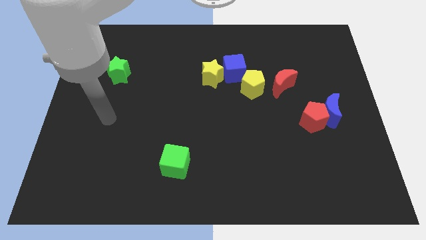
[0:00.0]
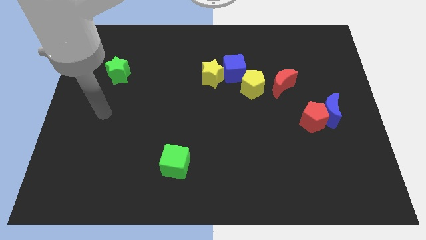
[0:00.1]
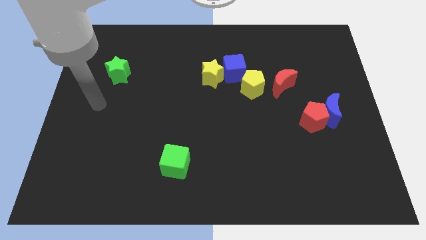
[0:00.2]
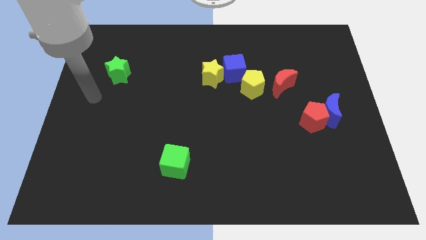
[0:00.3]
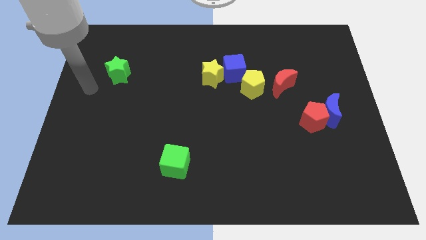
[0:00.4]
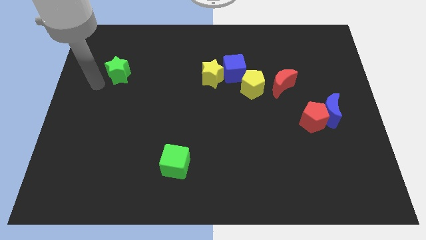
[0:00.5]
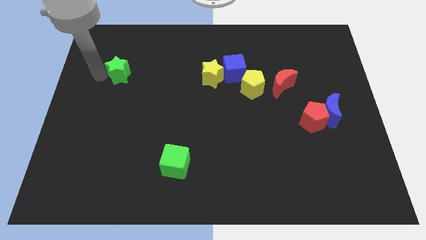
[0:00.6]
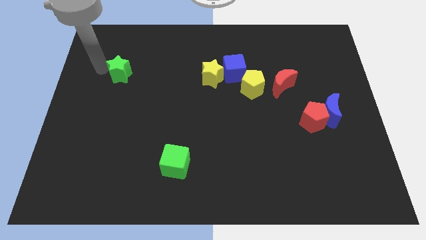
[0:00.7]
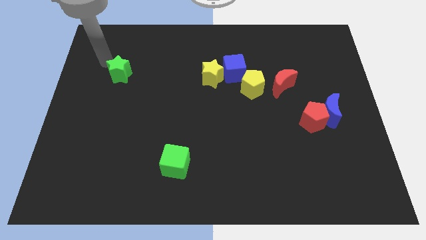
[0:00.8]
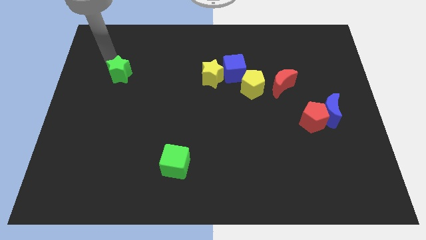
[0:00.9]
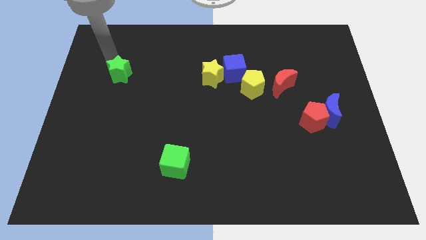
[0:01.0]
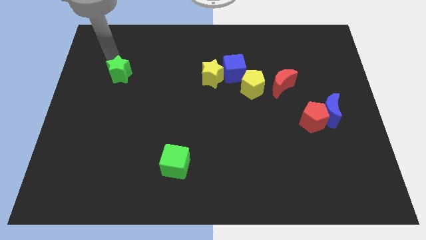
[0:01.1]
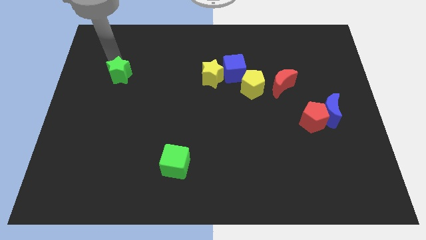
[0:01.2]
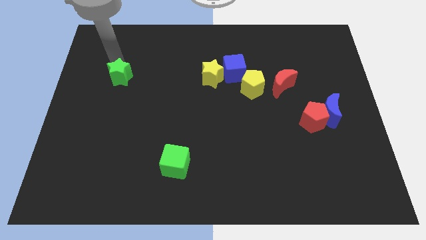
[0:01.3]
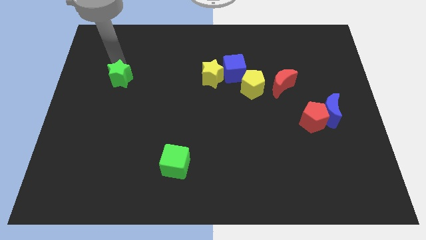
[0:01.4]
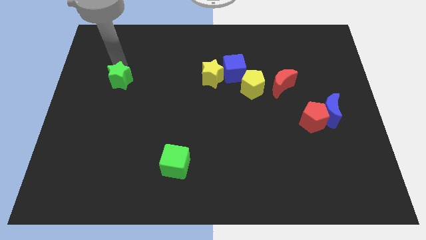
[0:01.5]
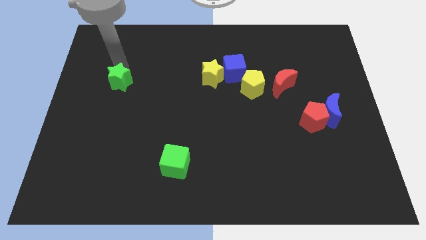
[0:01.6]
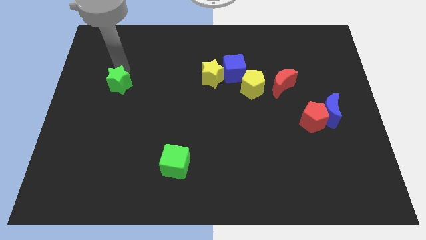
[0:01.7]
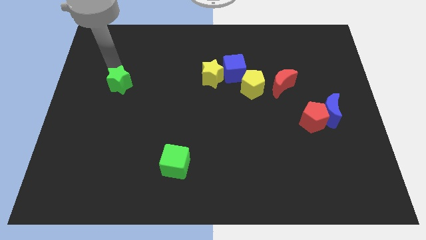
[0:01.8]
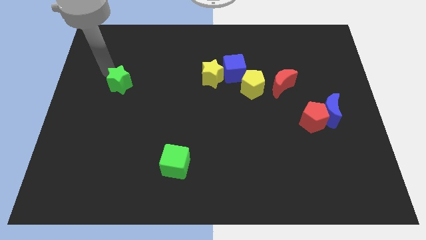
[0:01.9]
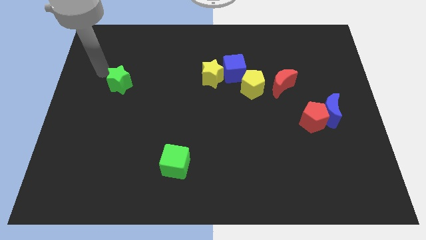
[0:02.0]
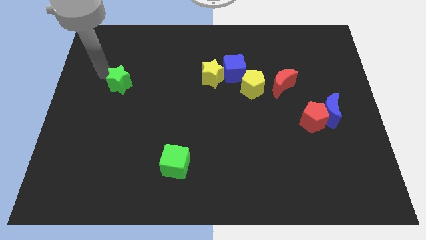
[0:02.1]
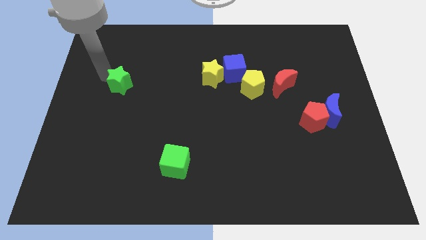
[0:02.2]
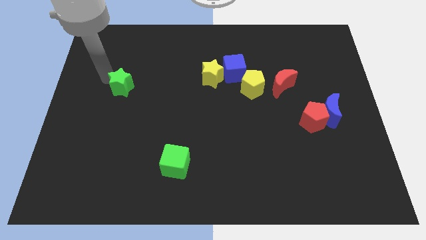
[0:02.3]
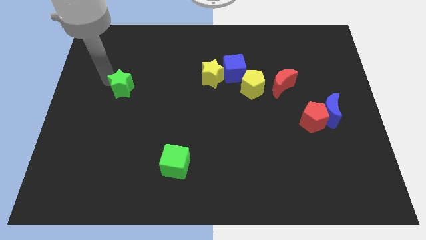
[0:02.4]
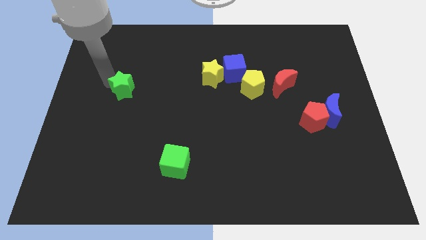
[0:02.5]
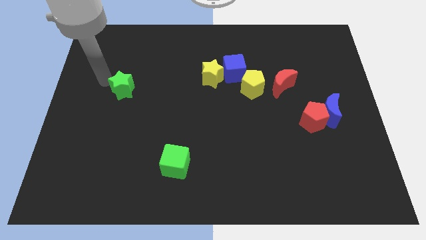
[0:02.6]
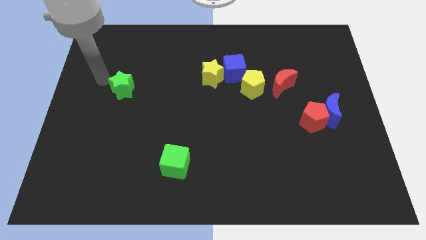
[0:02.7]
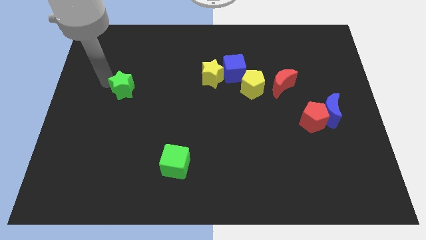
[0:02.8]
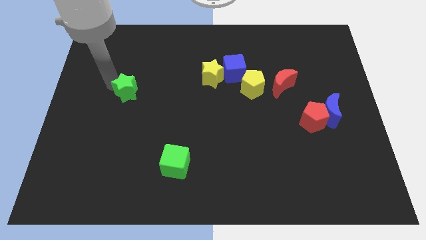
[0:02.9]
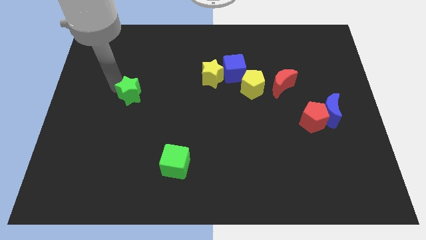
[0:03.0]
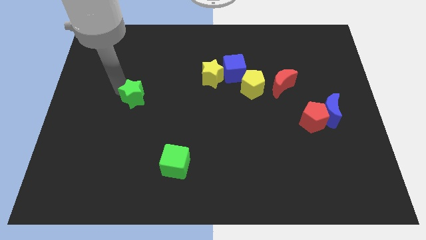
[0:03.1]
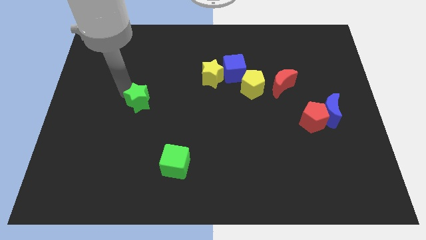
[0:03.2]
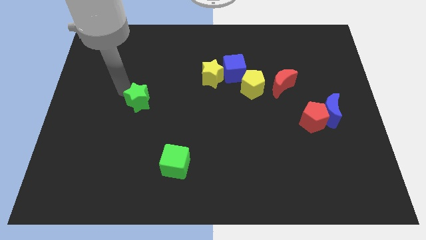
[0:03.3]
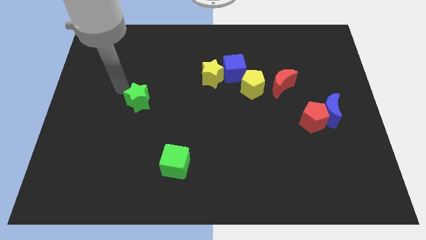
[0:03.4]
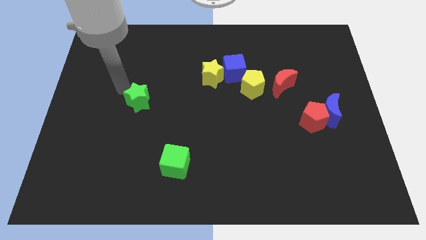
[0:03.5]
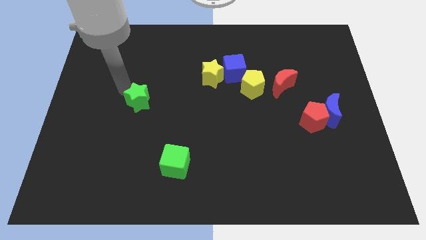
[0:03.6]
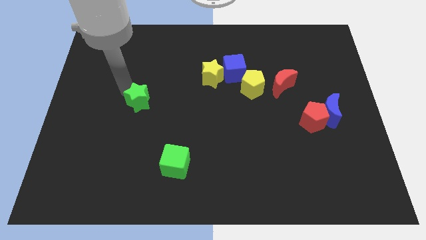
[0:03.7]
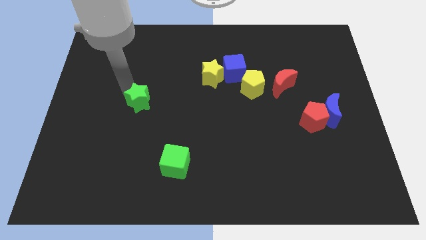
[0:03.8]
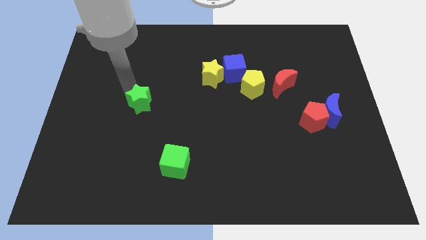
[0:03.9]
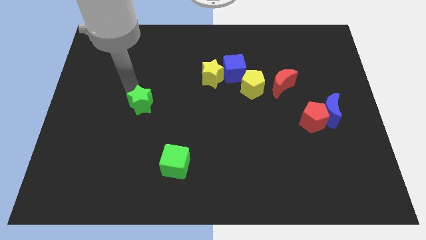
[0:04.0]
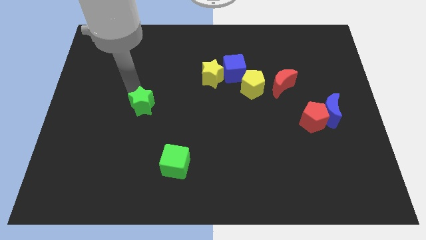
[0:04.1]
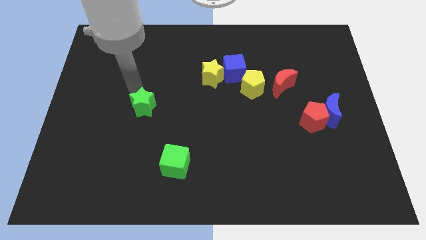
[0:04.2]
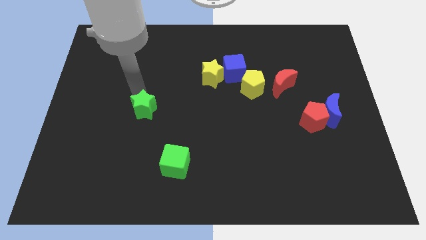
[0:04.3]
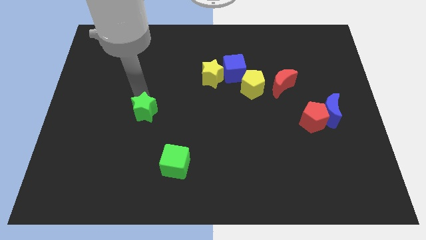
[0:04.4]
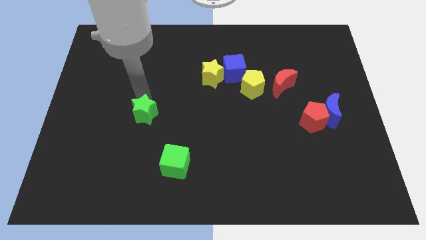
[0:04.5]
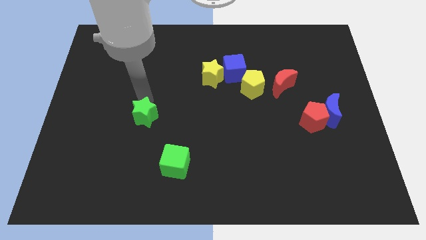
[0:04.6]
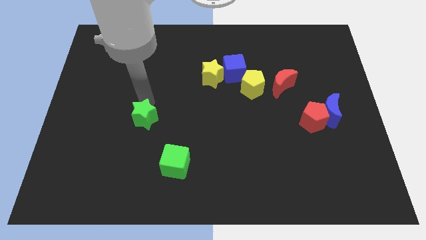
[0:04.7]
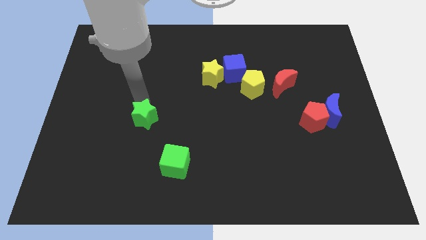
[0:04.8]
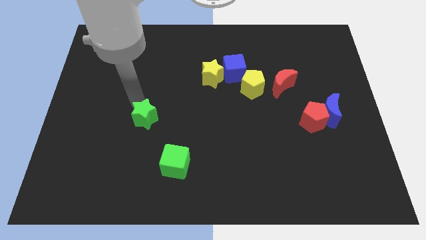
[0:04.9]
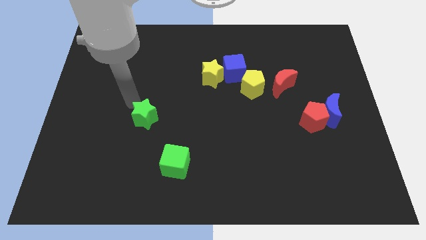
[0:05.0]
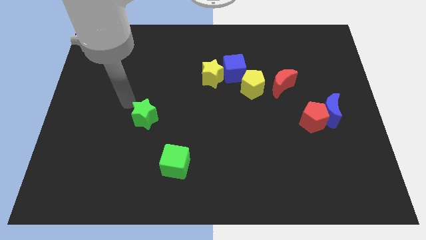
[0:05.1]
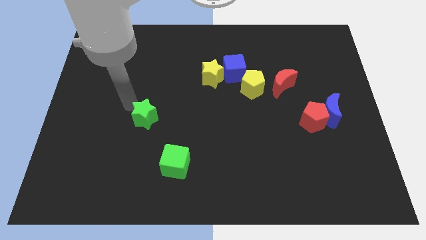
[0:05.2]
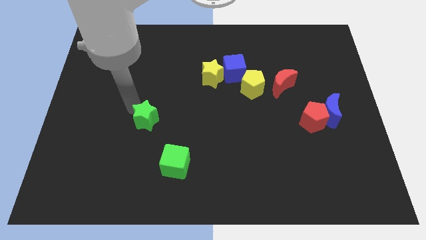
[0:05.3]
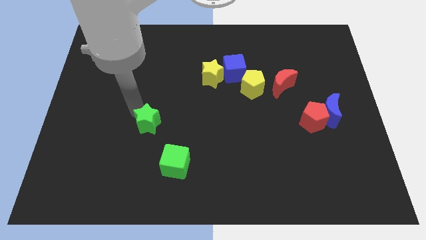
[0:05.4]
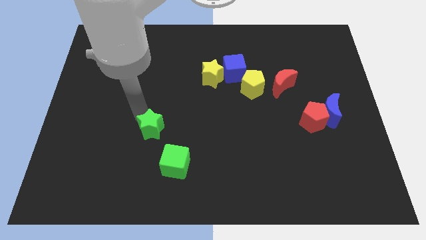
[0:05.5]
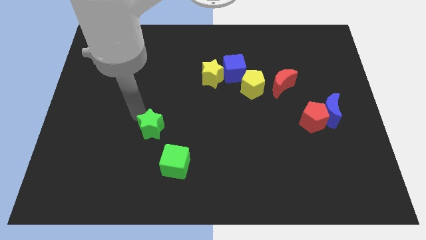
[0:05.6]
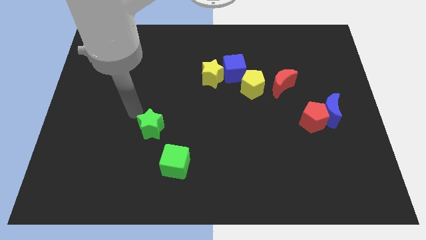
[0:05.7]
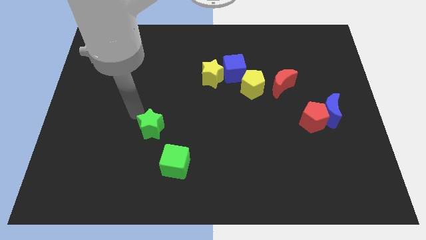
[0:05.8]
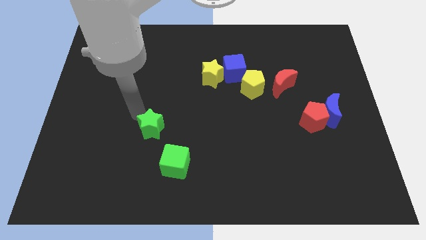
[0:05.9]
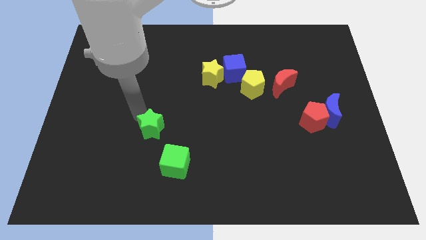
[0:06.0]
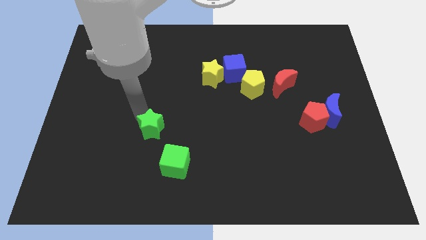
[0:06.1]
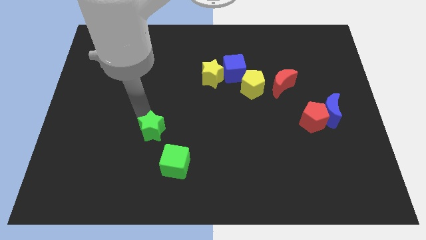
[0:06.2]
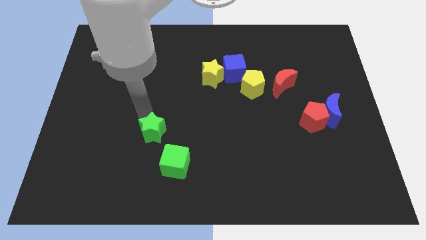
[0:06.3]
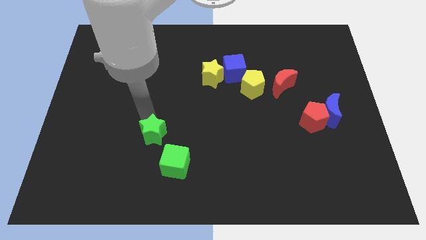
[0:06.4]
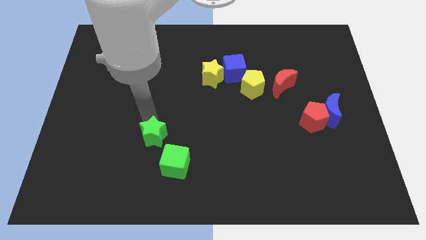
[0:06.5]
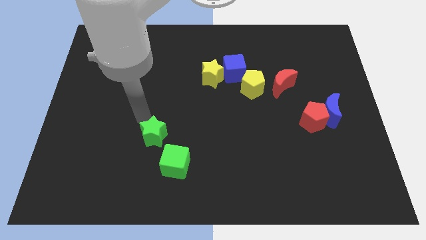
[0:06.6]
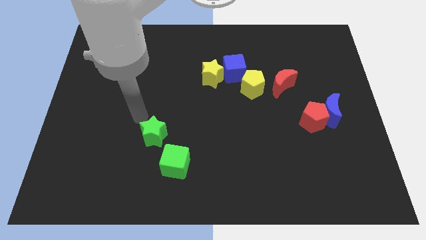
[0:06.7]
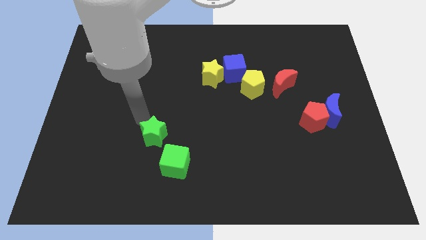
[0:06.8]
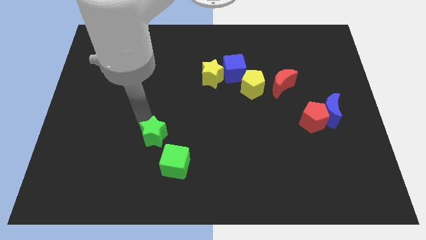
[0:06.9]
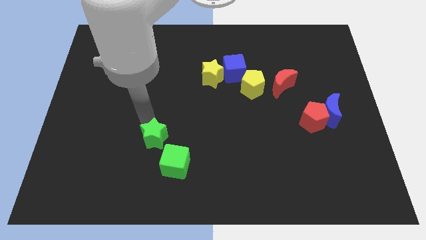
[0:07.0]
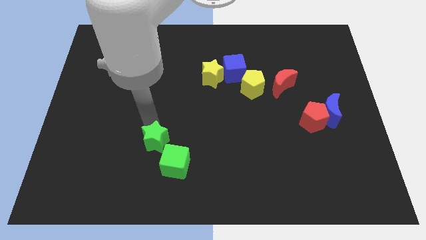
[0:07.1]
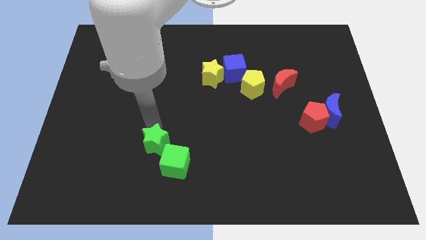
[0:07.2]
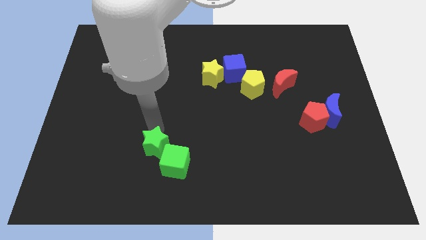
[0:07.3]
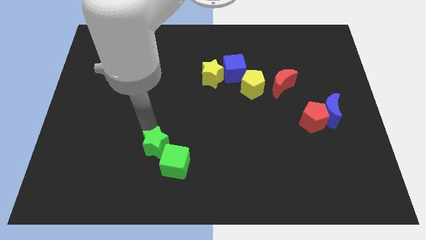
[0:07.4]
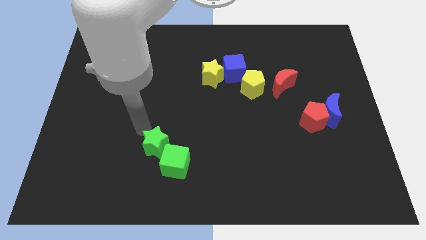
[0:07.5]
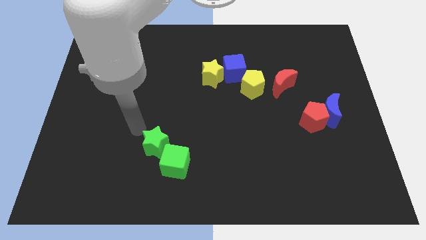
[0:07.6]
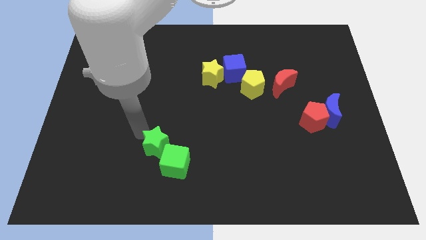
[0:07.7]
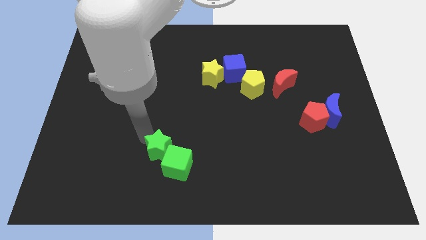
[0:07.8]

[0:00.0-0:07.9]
push the green star towards the green cube
